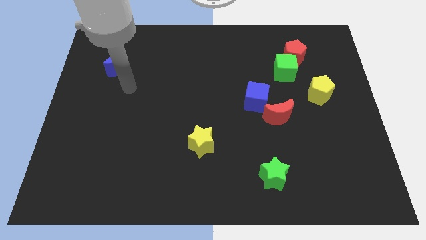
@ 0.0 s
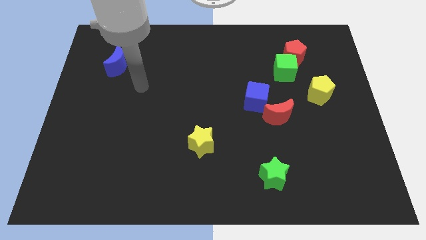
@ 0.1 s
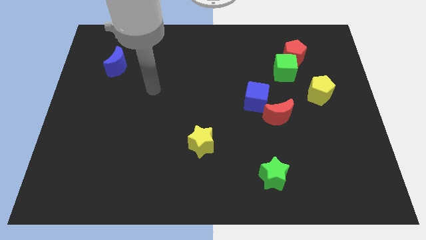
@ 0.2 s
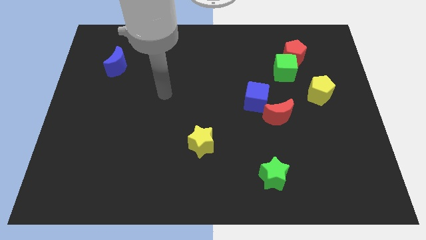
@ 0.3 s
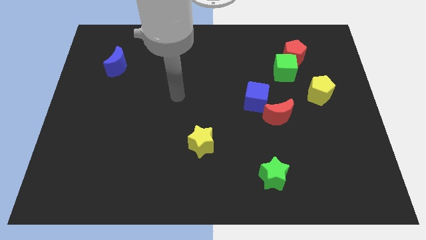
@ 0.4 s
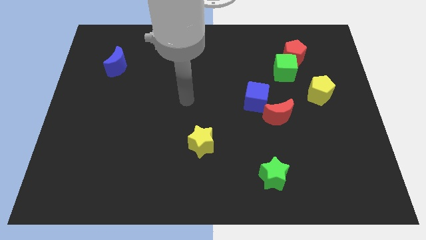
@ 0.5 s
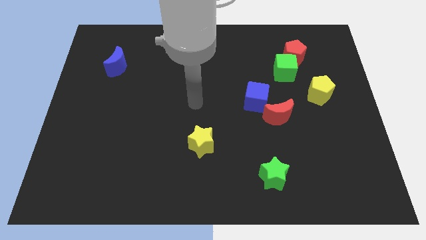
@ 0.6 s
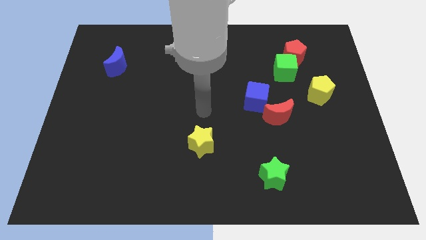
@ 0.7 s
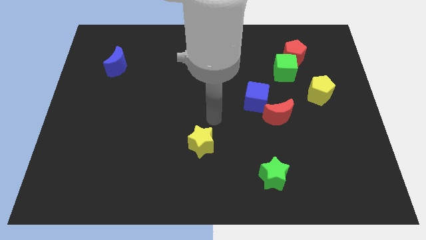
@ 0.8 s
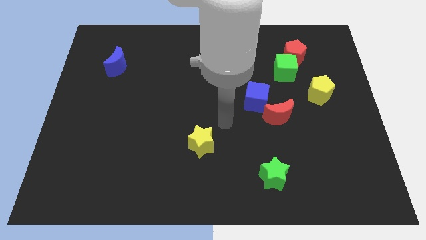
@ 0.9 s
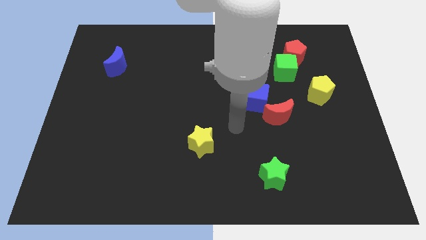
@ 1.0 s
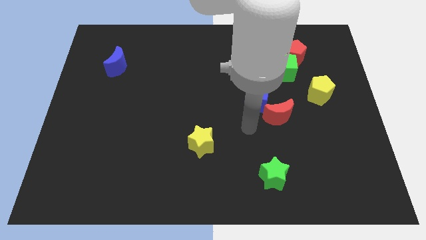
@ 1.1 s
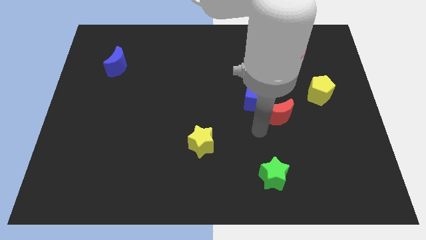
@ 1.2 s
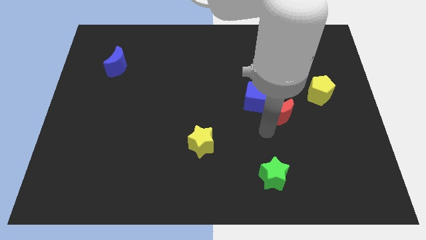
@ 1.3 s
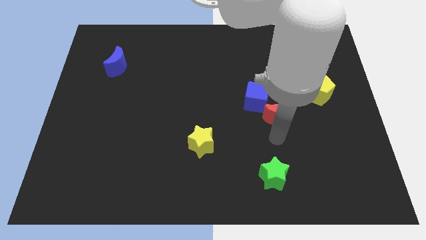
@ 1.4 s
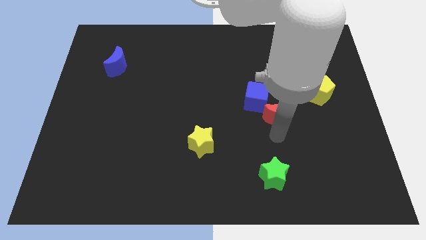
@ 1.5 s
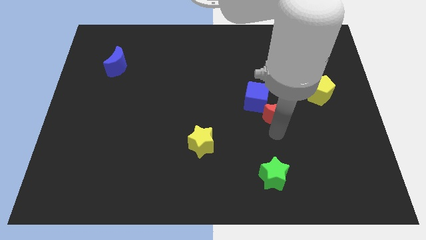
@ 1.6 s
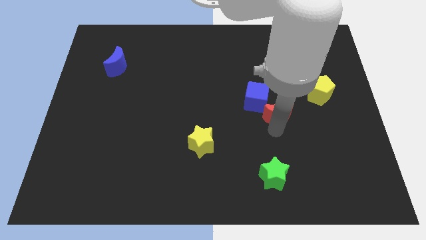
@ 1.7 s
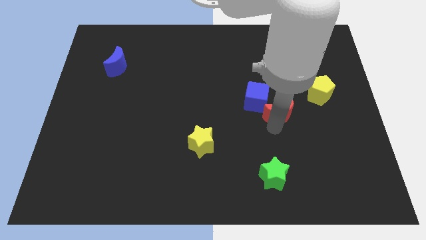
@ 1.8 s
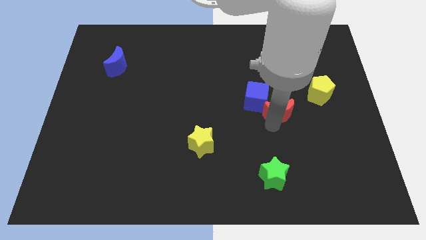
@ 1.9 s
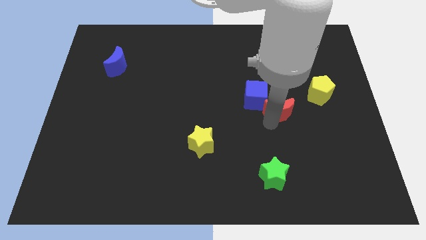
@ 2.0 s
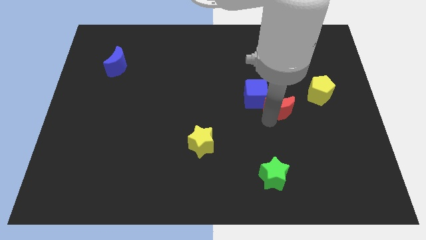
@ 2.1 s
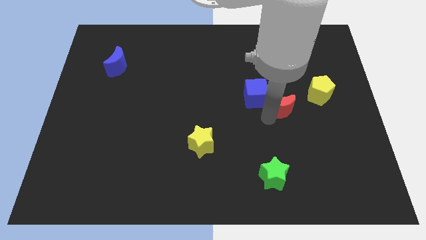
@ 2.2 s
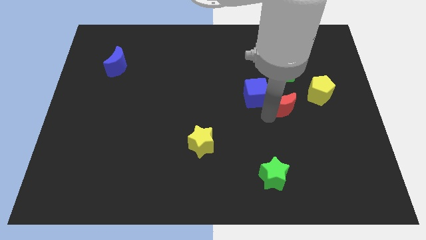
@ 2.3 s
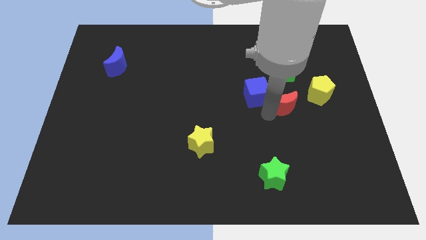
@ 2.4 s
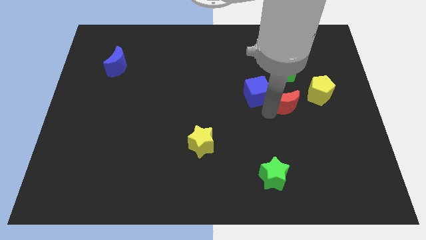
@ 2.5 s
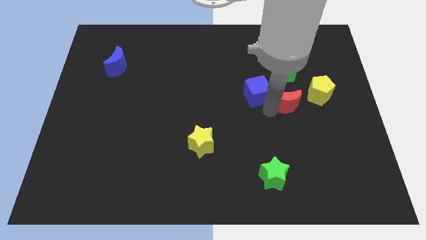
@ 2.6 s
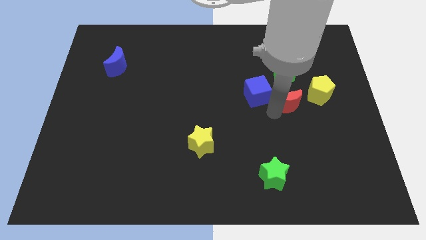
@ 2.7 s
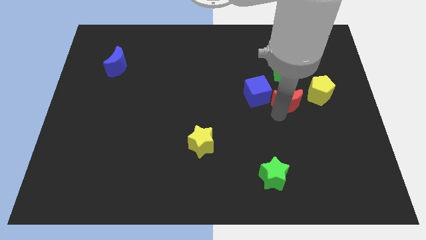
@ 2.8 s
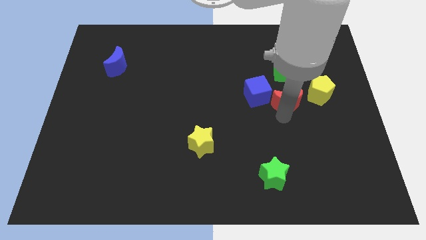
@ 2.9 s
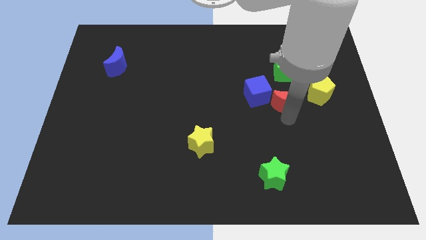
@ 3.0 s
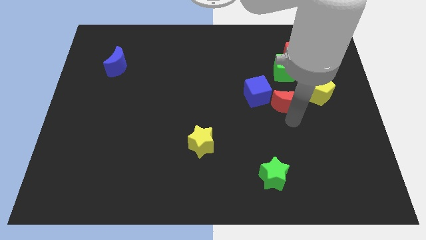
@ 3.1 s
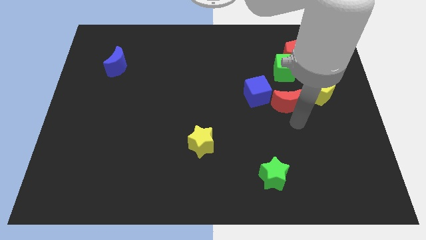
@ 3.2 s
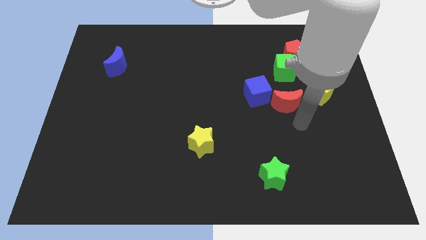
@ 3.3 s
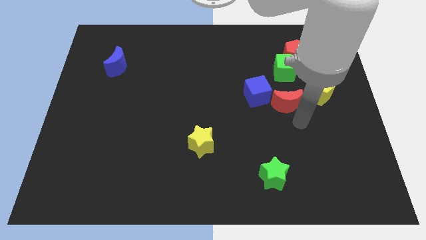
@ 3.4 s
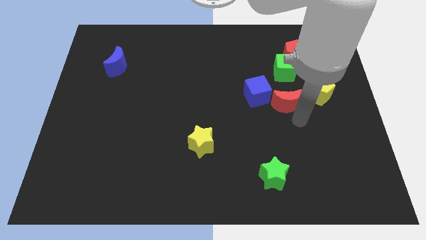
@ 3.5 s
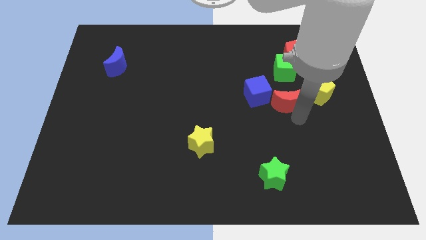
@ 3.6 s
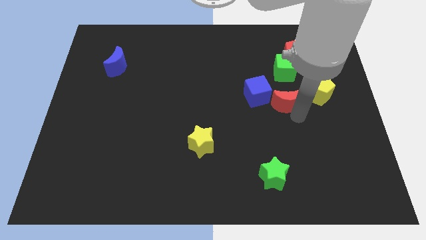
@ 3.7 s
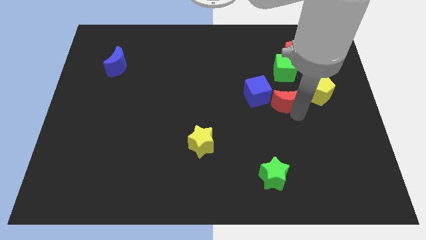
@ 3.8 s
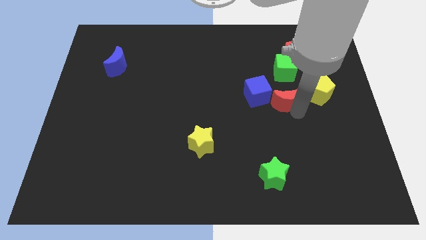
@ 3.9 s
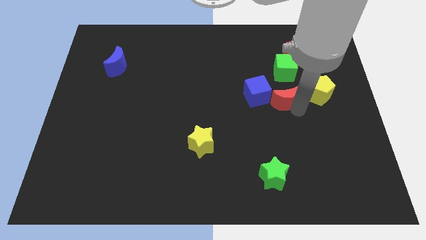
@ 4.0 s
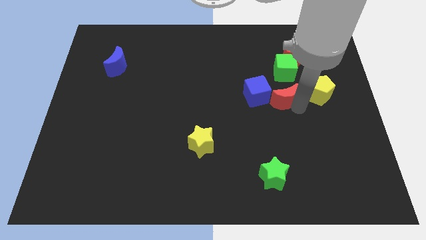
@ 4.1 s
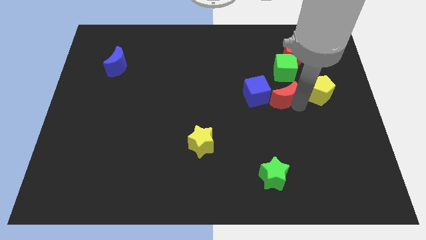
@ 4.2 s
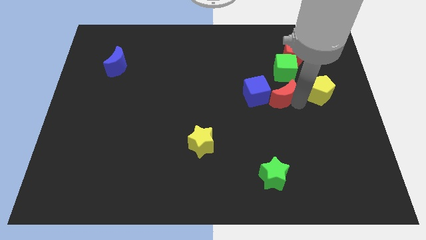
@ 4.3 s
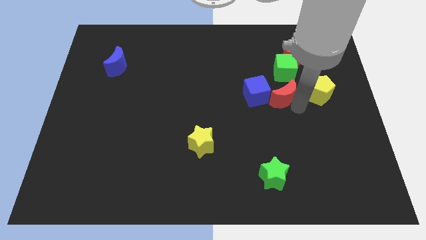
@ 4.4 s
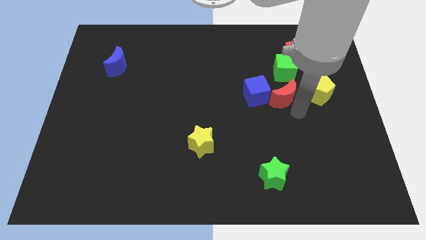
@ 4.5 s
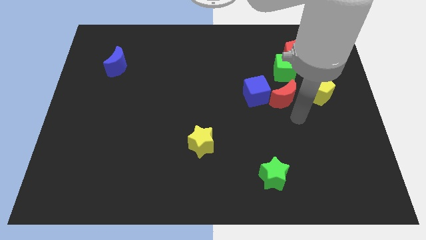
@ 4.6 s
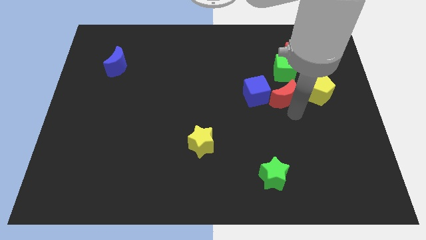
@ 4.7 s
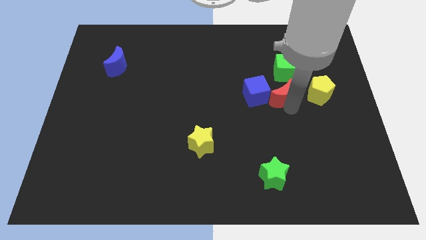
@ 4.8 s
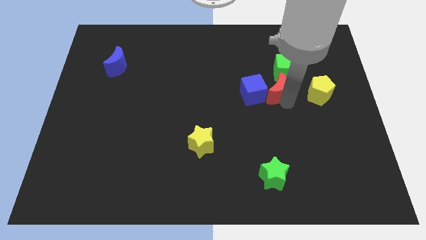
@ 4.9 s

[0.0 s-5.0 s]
push the red moon up somewhat

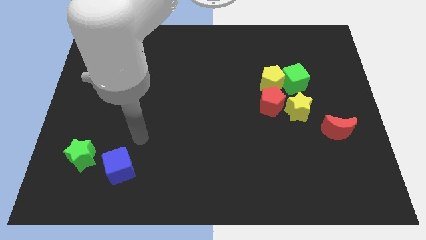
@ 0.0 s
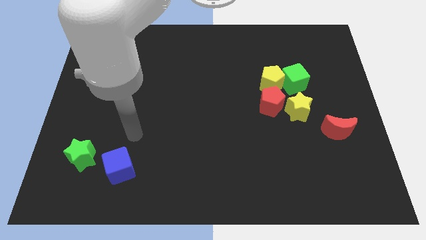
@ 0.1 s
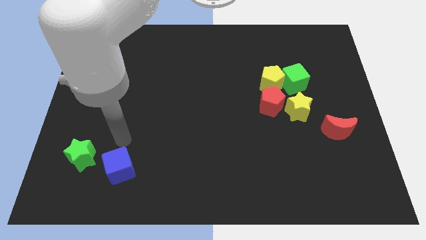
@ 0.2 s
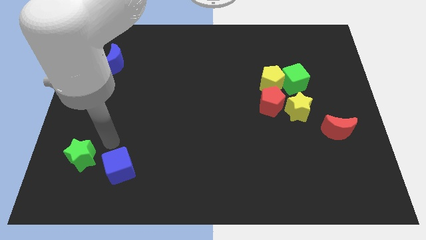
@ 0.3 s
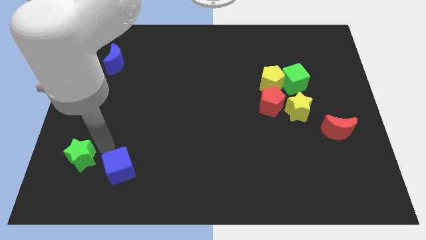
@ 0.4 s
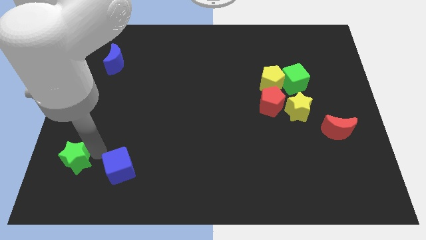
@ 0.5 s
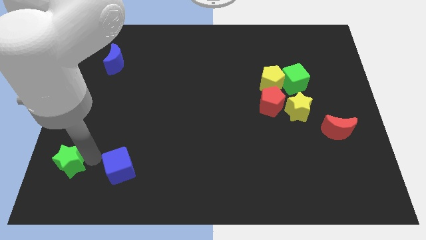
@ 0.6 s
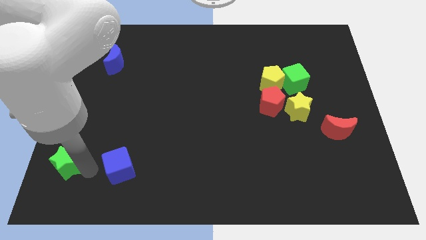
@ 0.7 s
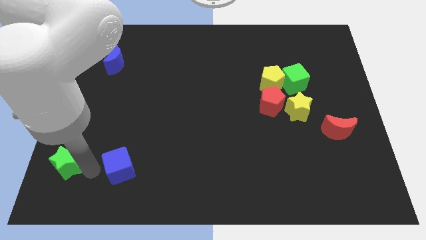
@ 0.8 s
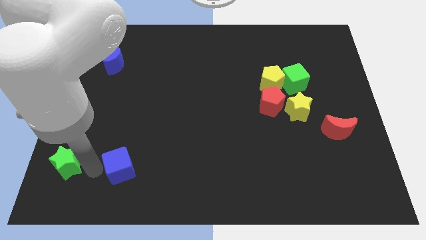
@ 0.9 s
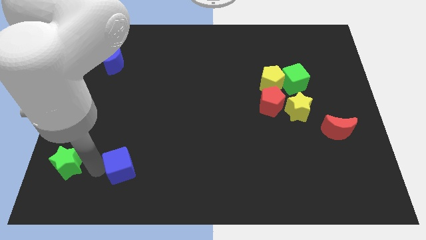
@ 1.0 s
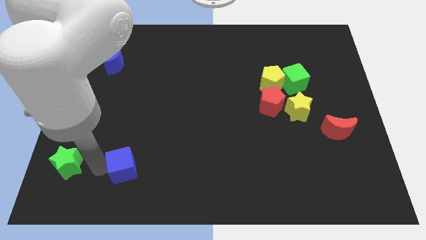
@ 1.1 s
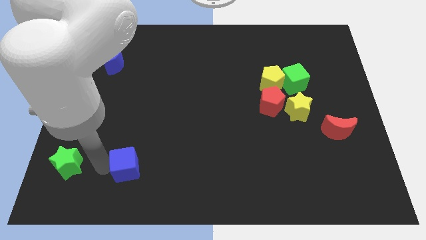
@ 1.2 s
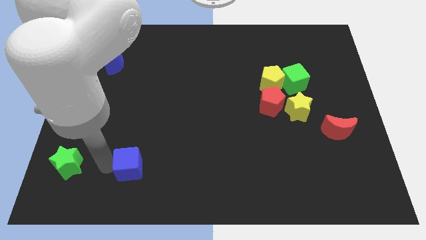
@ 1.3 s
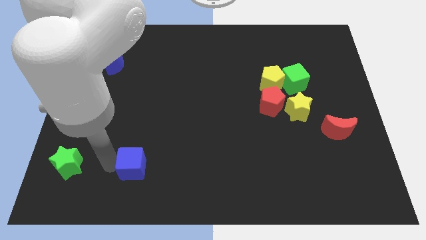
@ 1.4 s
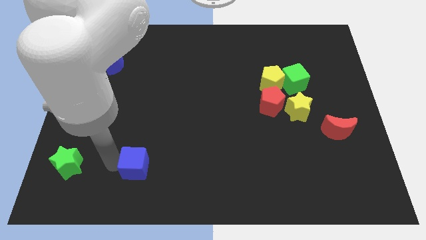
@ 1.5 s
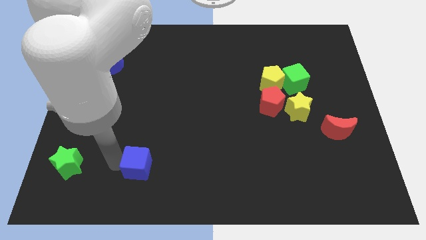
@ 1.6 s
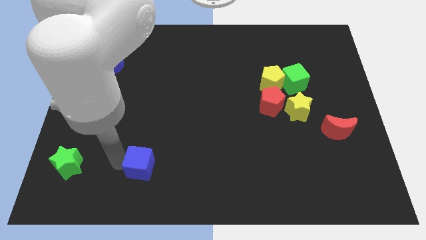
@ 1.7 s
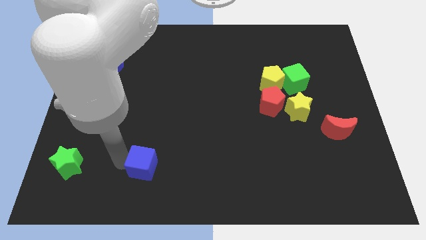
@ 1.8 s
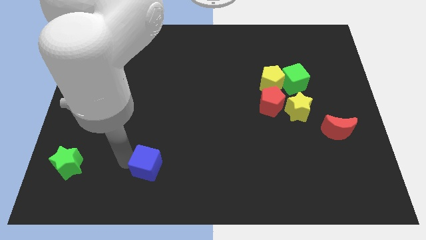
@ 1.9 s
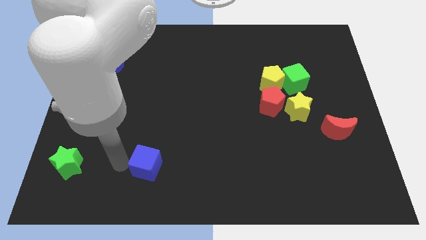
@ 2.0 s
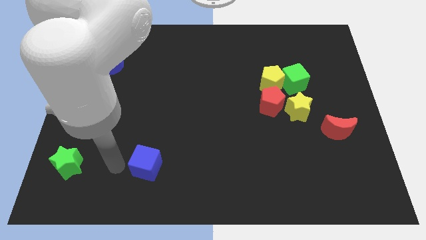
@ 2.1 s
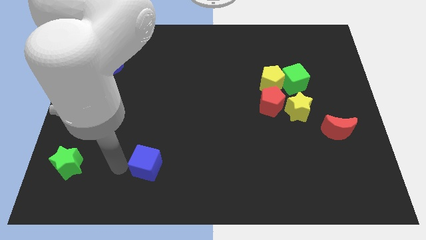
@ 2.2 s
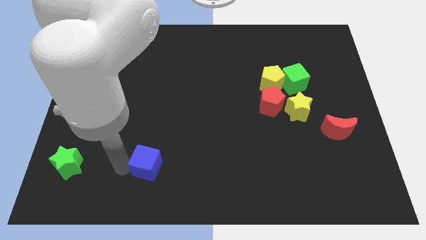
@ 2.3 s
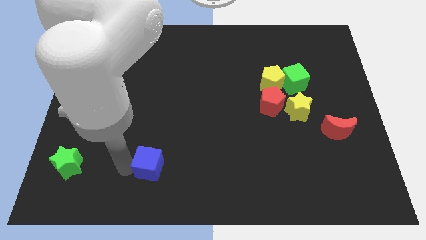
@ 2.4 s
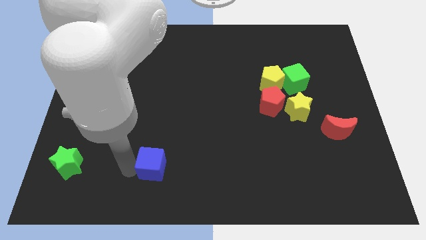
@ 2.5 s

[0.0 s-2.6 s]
slightly move the blue cube to the right

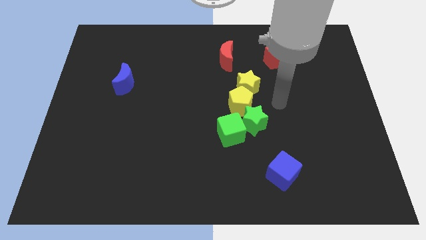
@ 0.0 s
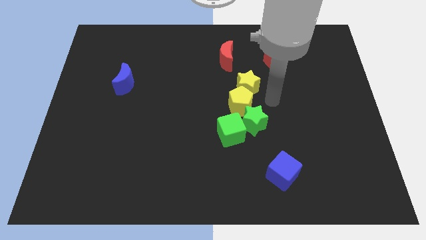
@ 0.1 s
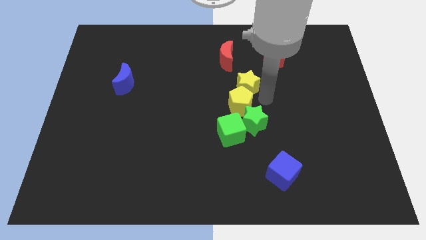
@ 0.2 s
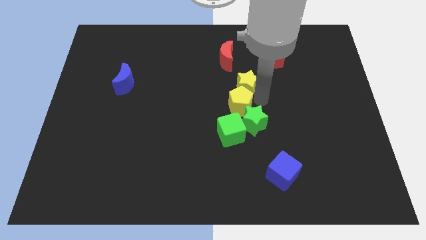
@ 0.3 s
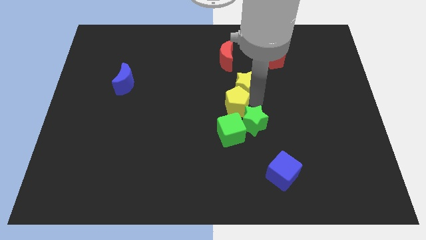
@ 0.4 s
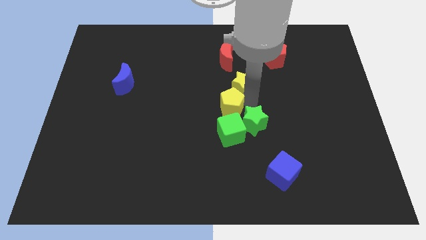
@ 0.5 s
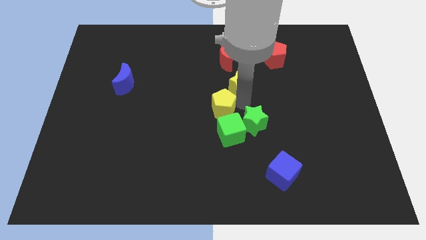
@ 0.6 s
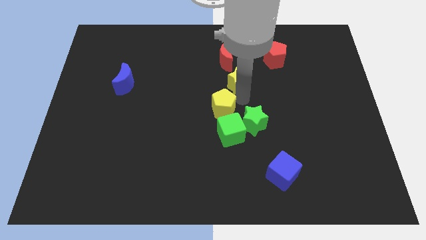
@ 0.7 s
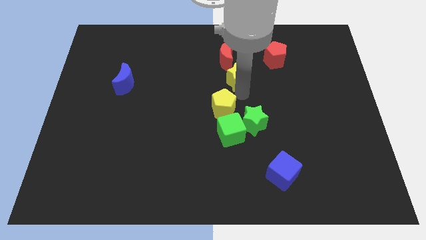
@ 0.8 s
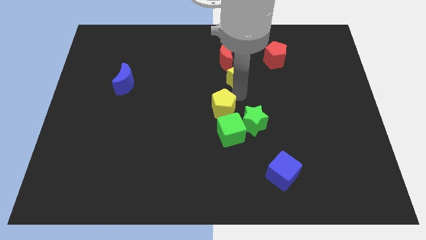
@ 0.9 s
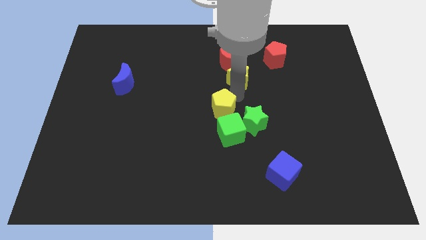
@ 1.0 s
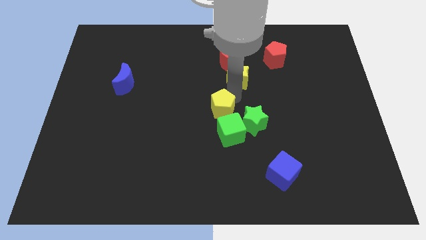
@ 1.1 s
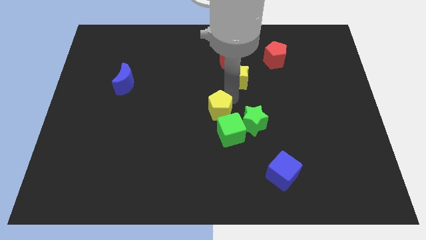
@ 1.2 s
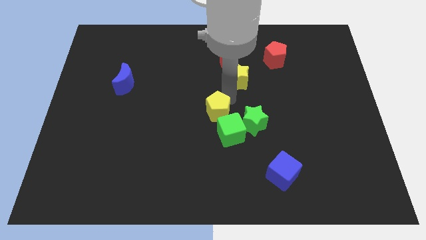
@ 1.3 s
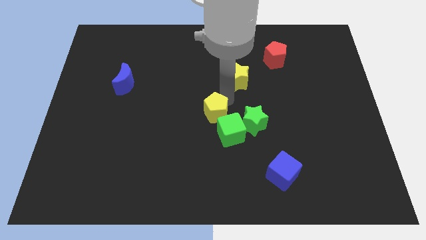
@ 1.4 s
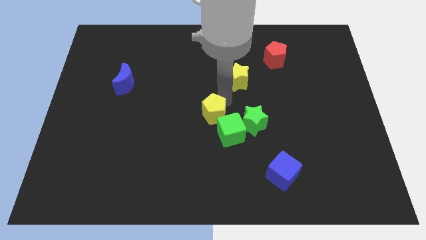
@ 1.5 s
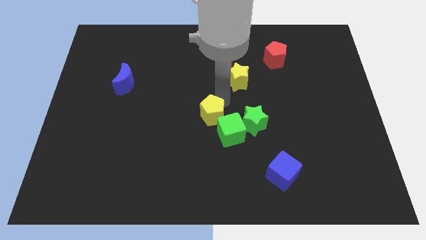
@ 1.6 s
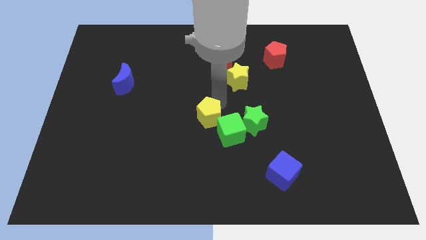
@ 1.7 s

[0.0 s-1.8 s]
slightly move the yellow pentagon down and to the left diagonally
